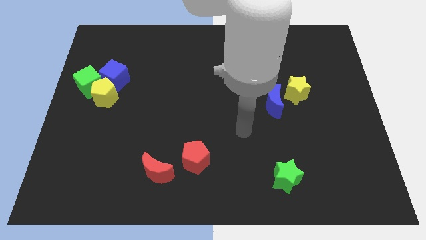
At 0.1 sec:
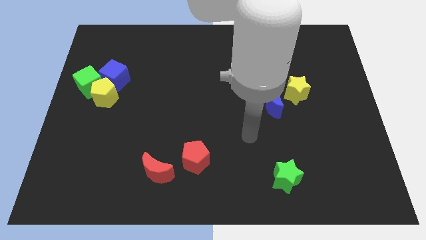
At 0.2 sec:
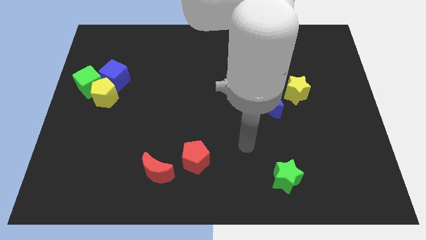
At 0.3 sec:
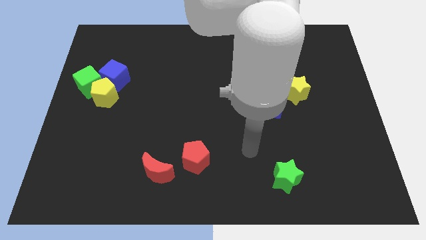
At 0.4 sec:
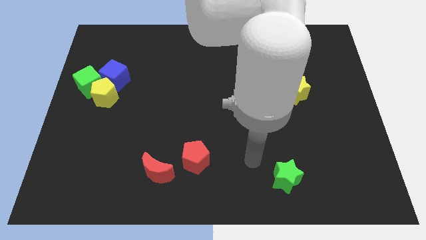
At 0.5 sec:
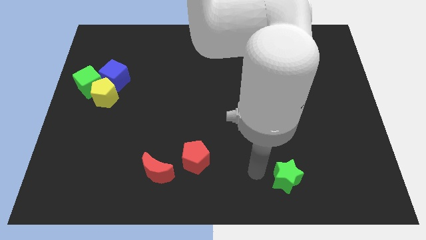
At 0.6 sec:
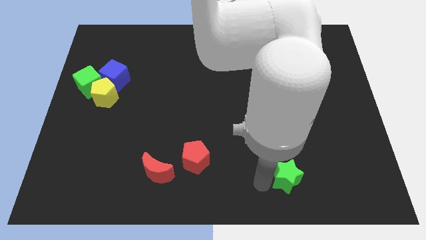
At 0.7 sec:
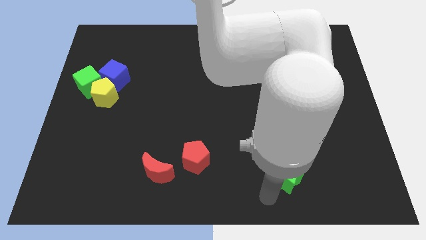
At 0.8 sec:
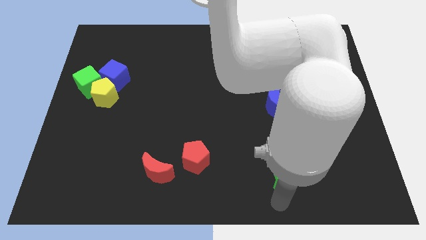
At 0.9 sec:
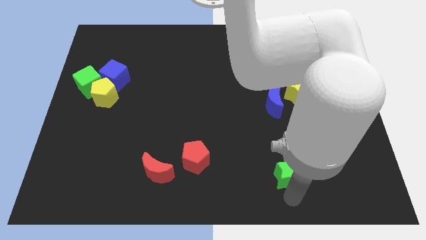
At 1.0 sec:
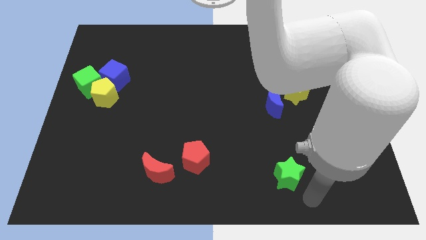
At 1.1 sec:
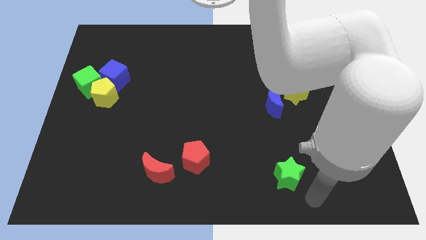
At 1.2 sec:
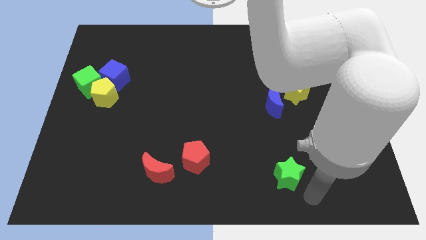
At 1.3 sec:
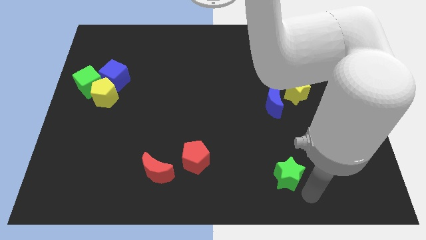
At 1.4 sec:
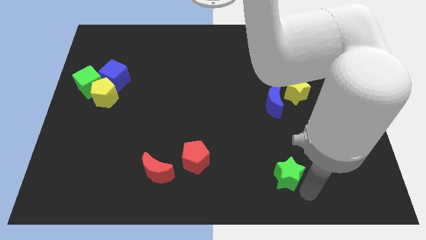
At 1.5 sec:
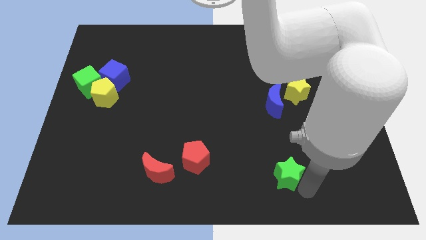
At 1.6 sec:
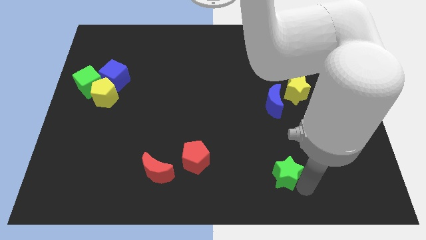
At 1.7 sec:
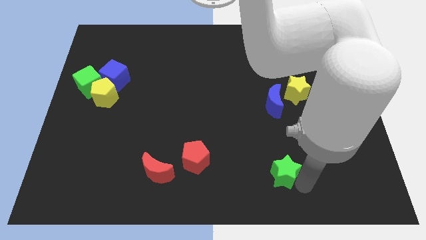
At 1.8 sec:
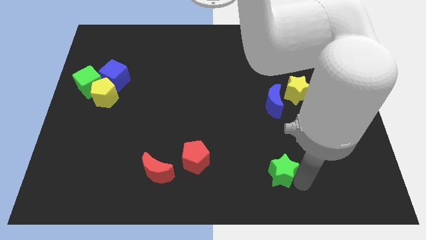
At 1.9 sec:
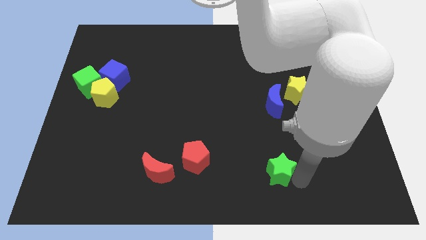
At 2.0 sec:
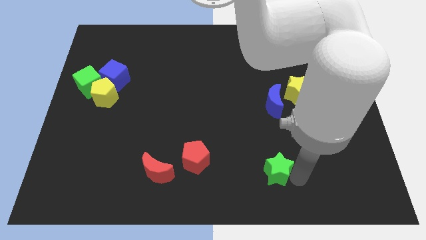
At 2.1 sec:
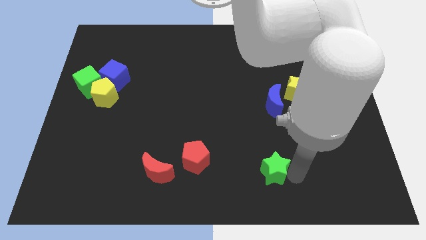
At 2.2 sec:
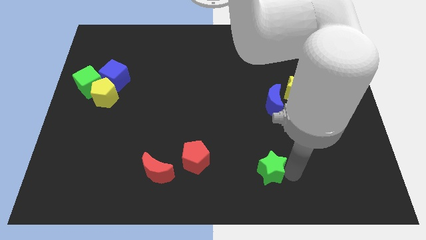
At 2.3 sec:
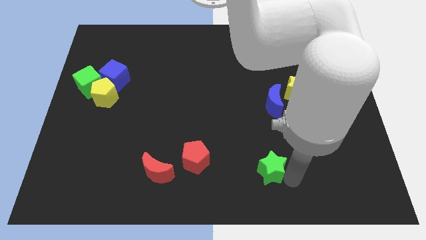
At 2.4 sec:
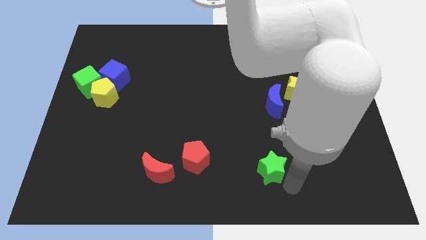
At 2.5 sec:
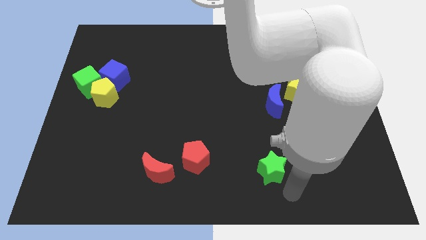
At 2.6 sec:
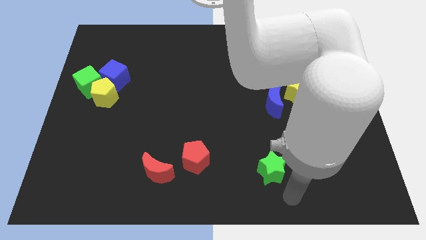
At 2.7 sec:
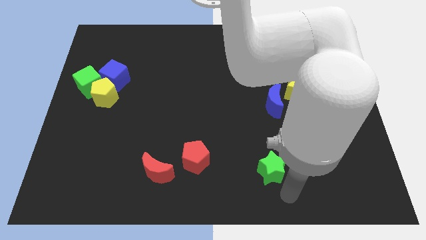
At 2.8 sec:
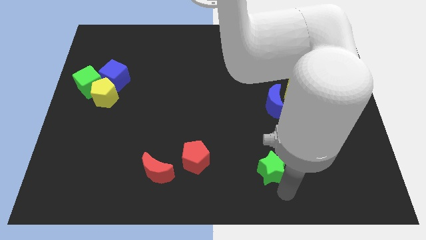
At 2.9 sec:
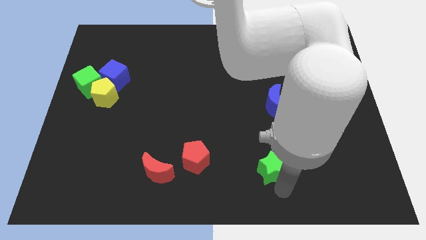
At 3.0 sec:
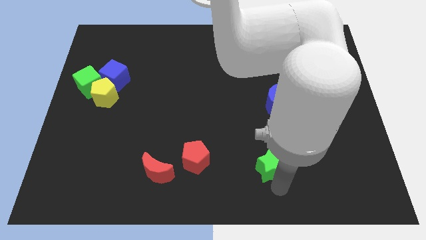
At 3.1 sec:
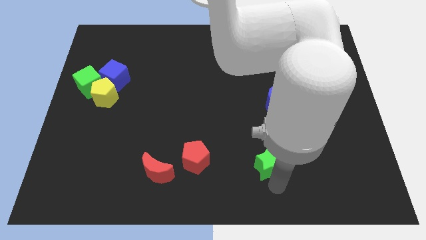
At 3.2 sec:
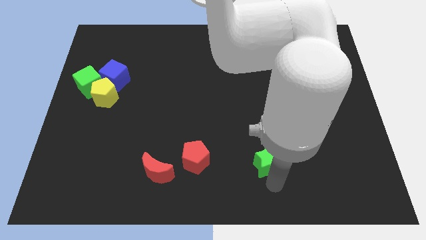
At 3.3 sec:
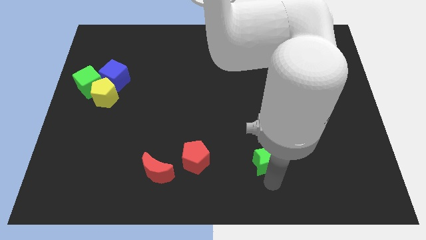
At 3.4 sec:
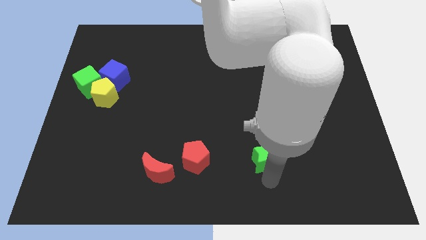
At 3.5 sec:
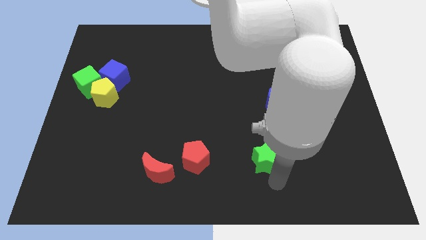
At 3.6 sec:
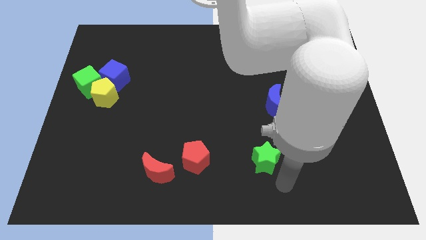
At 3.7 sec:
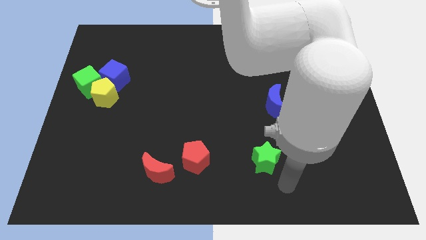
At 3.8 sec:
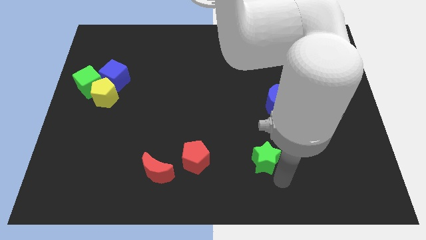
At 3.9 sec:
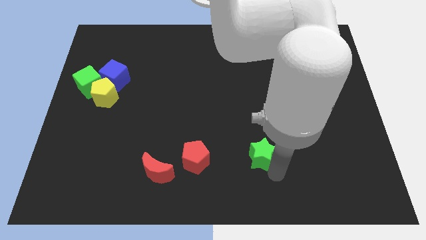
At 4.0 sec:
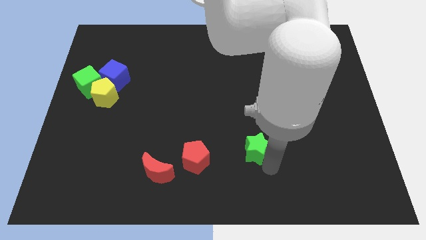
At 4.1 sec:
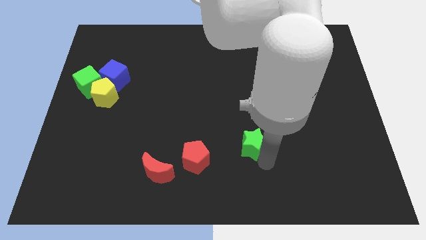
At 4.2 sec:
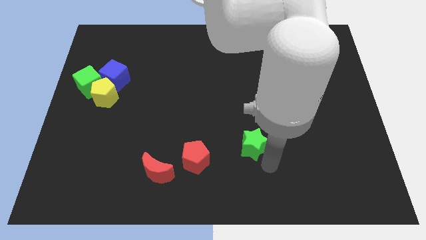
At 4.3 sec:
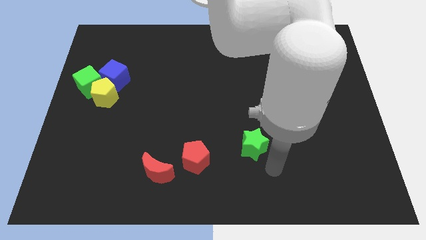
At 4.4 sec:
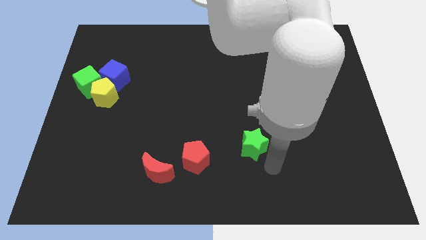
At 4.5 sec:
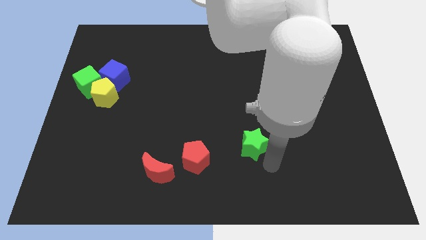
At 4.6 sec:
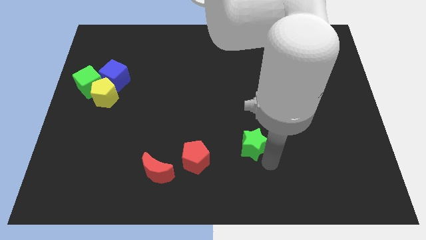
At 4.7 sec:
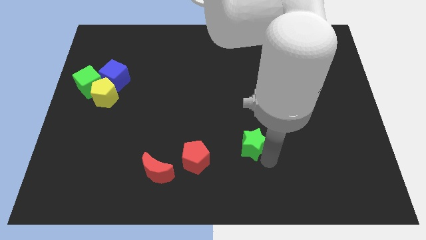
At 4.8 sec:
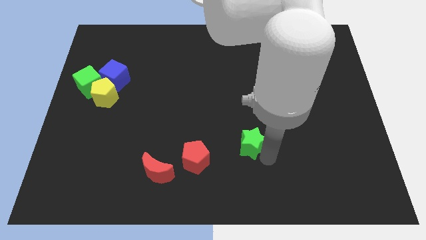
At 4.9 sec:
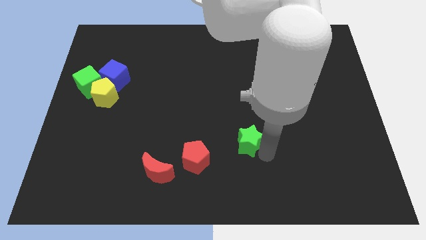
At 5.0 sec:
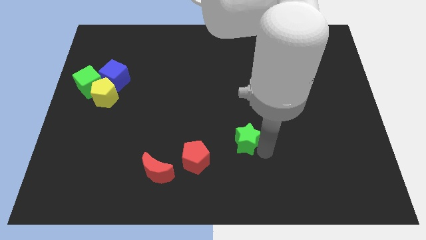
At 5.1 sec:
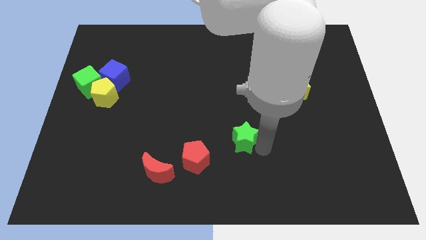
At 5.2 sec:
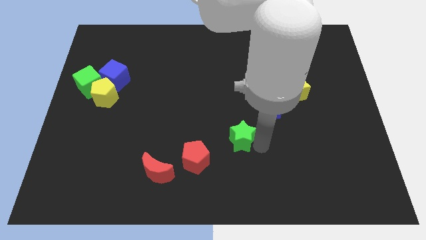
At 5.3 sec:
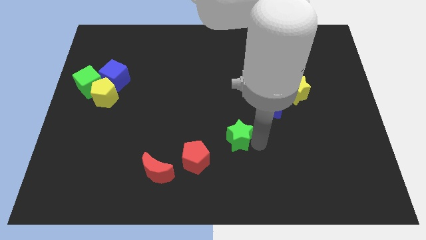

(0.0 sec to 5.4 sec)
push the green star to the middle of the board

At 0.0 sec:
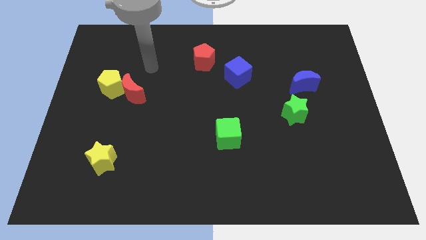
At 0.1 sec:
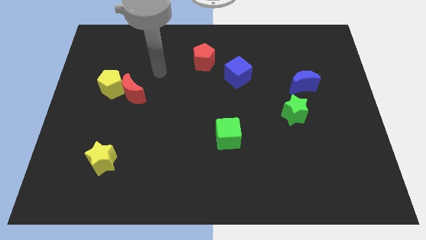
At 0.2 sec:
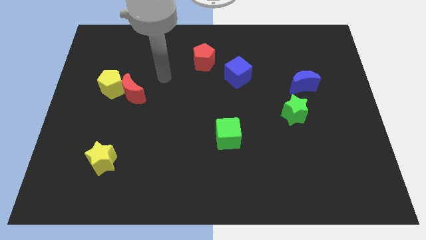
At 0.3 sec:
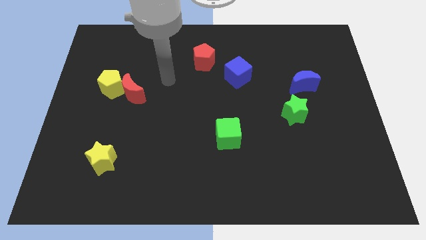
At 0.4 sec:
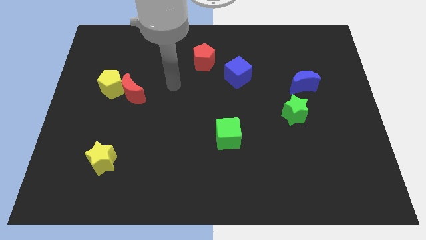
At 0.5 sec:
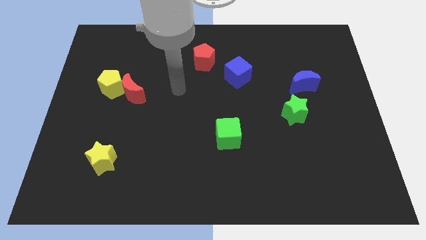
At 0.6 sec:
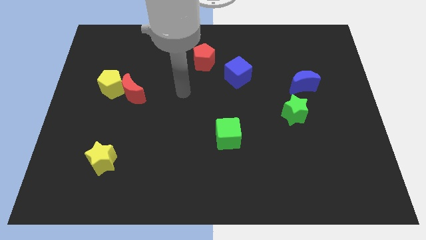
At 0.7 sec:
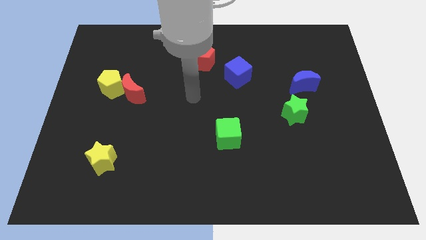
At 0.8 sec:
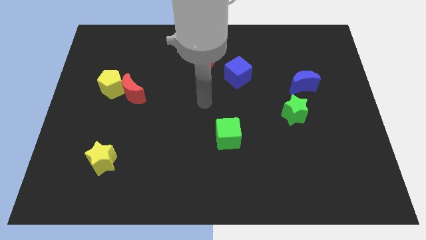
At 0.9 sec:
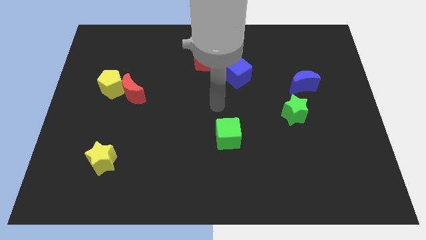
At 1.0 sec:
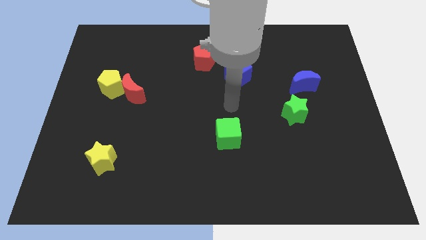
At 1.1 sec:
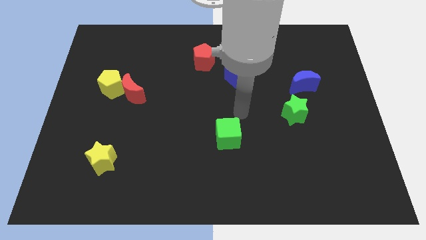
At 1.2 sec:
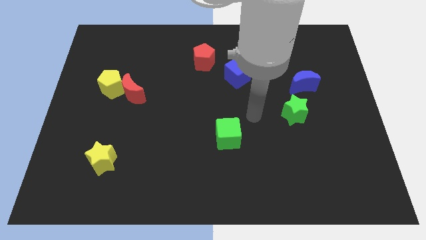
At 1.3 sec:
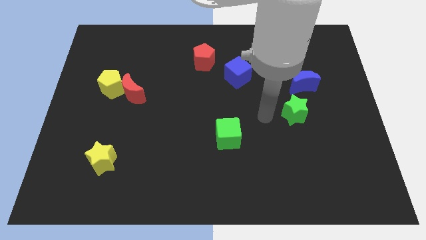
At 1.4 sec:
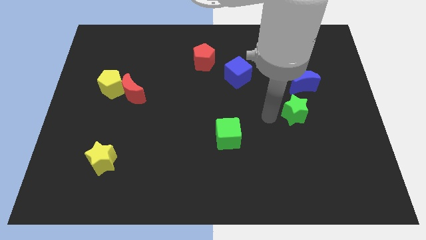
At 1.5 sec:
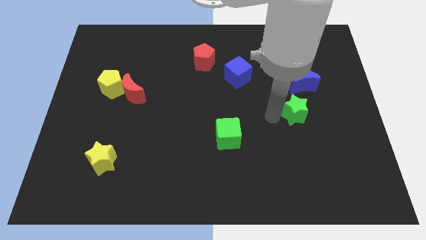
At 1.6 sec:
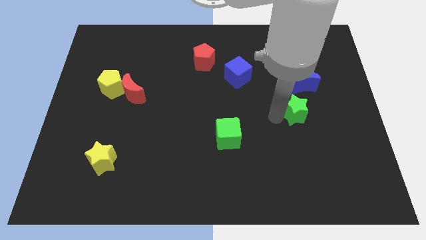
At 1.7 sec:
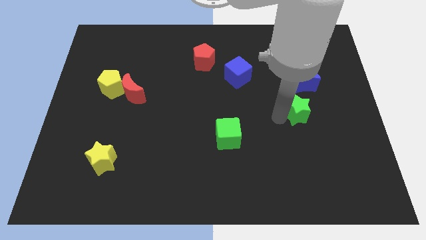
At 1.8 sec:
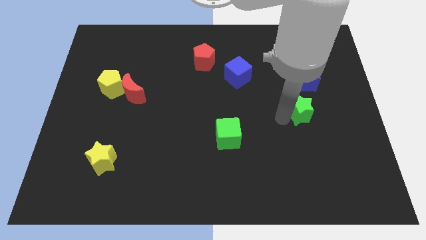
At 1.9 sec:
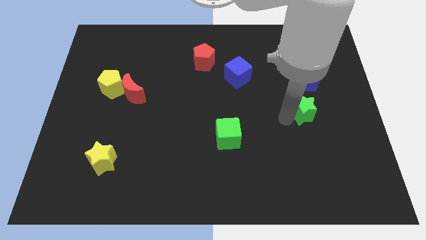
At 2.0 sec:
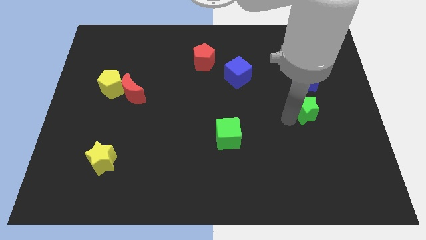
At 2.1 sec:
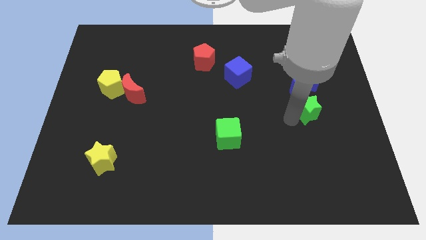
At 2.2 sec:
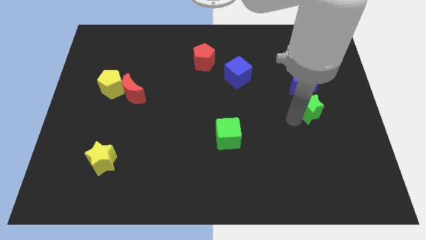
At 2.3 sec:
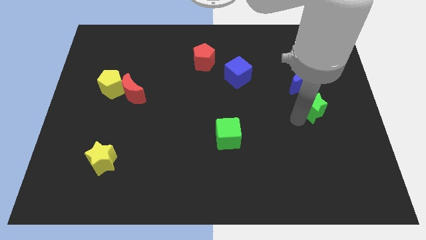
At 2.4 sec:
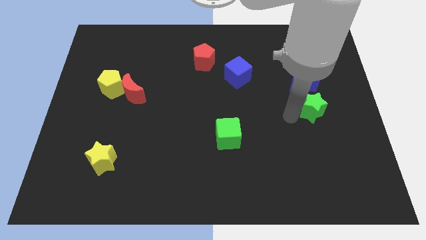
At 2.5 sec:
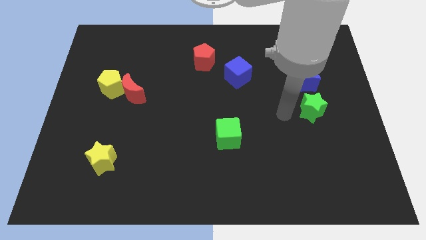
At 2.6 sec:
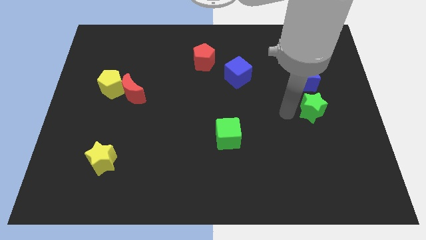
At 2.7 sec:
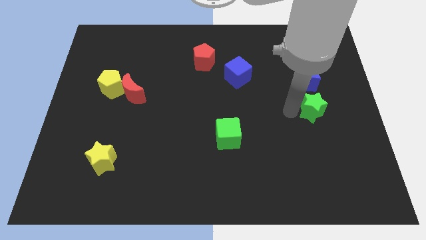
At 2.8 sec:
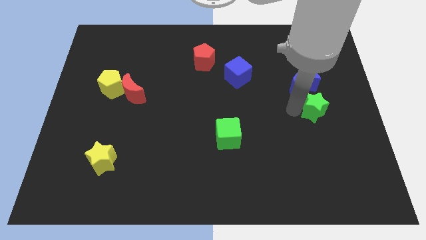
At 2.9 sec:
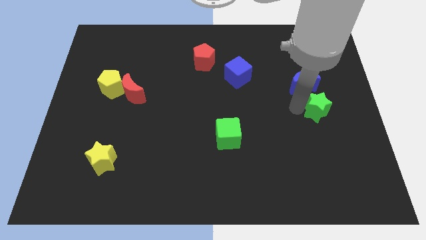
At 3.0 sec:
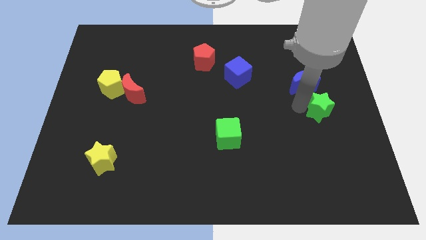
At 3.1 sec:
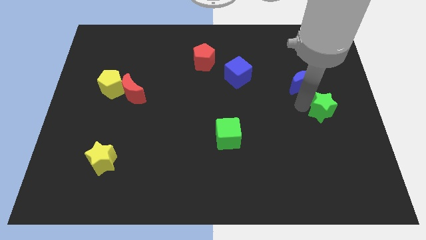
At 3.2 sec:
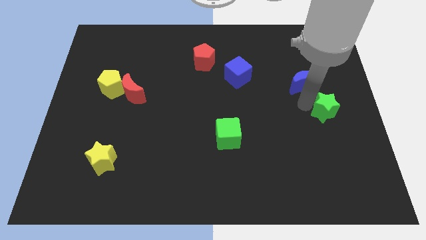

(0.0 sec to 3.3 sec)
put the green star to the right side
